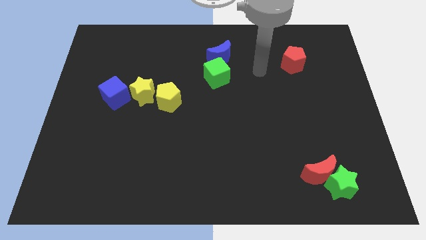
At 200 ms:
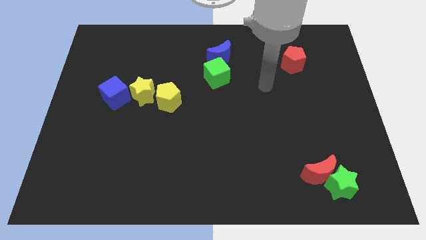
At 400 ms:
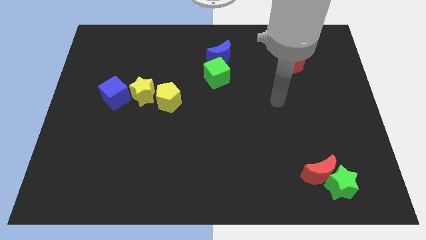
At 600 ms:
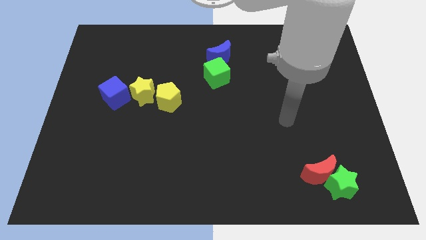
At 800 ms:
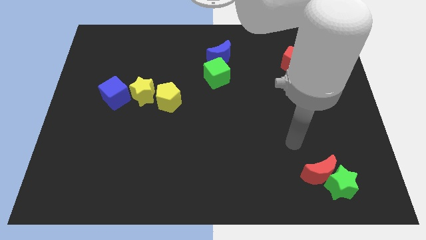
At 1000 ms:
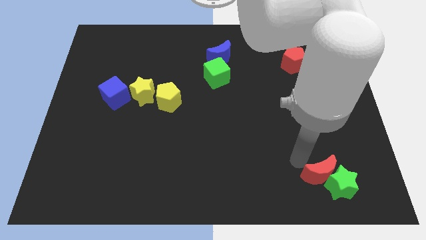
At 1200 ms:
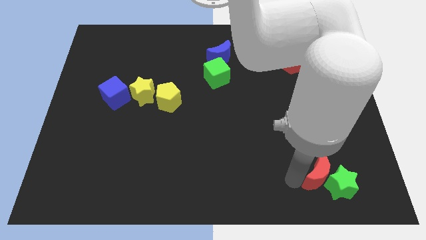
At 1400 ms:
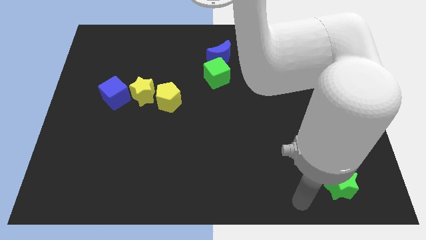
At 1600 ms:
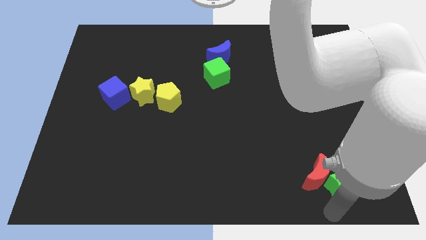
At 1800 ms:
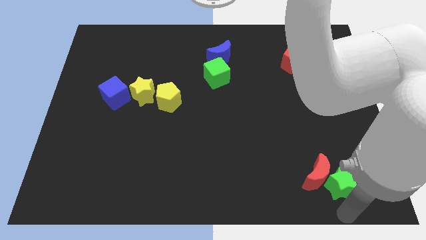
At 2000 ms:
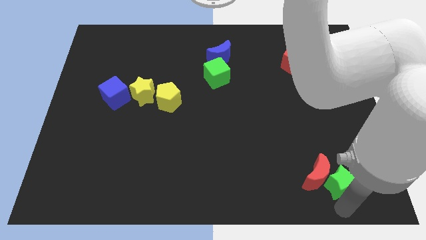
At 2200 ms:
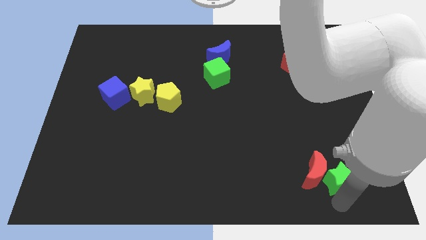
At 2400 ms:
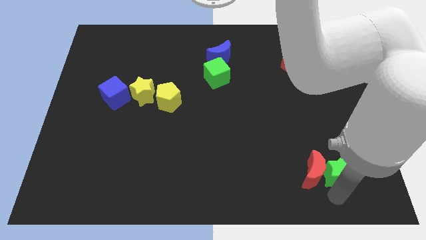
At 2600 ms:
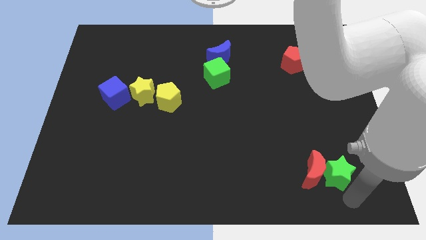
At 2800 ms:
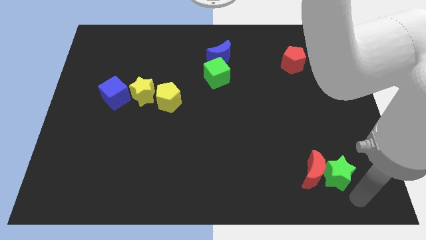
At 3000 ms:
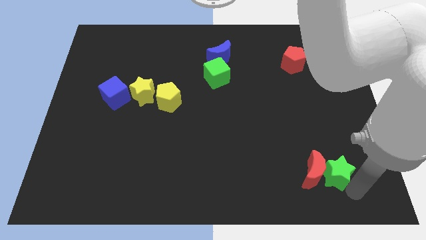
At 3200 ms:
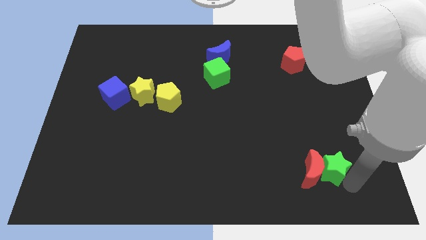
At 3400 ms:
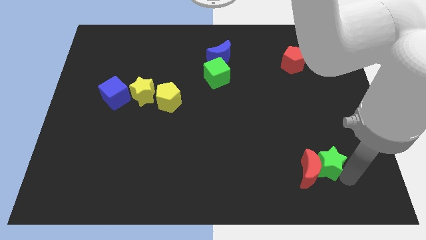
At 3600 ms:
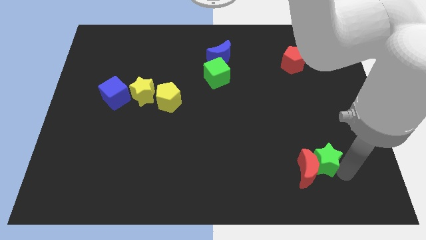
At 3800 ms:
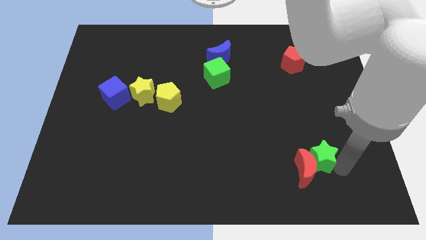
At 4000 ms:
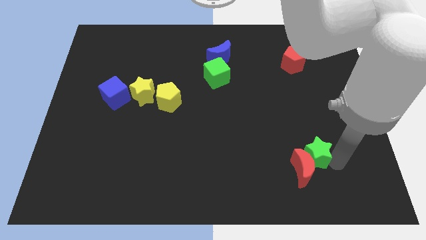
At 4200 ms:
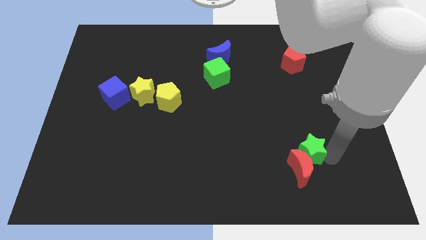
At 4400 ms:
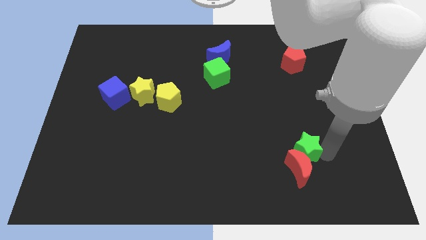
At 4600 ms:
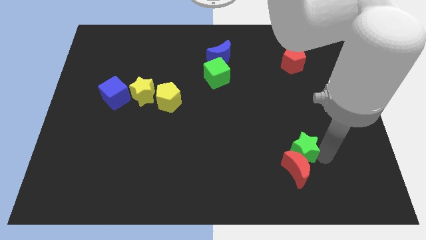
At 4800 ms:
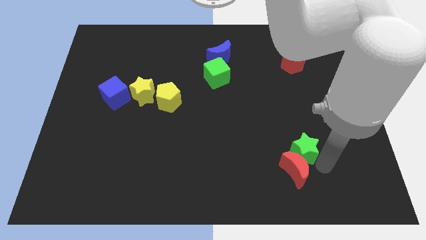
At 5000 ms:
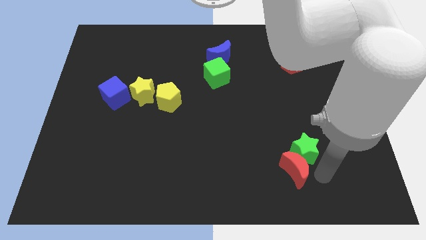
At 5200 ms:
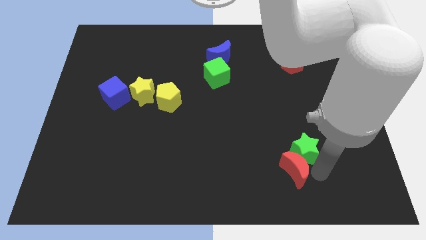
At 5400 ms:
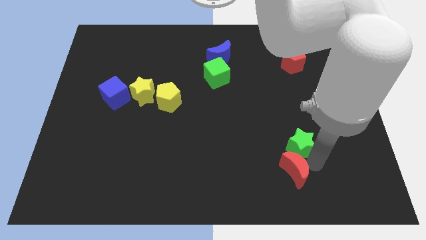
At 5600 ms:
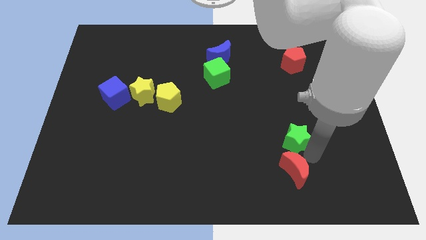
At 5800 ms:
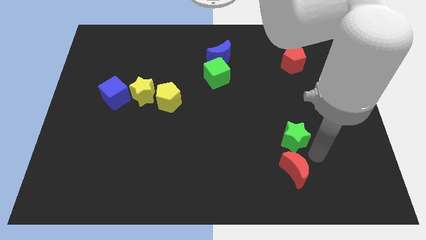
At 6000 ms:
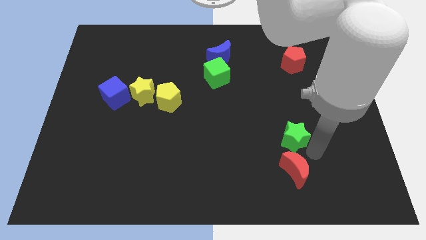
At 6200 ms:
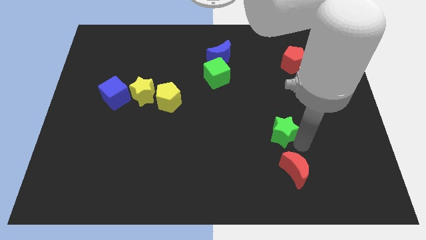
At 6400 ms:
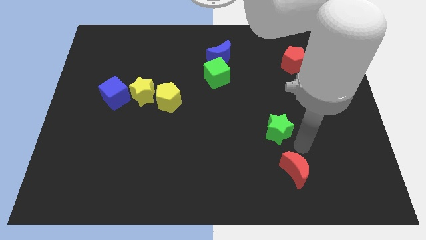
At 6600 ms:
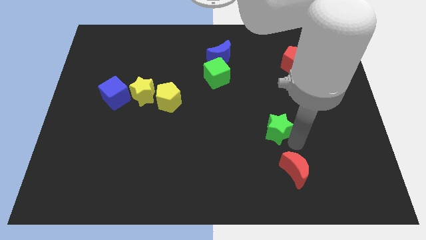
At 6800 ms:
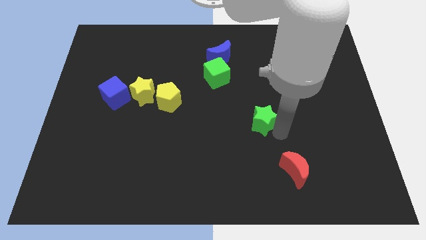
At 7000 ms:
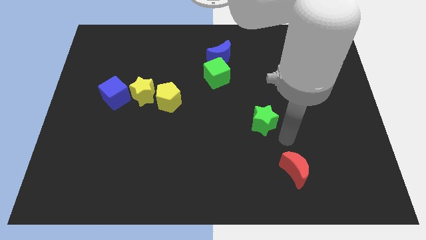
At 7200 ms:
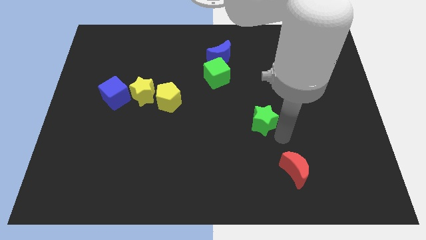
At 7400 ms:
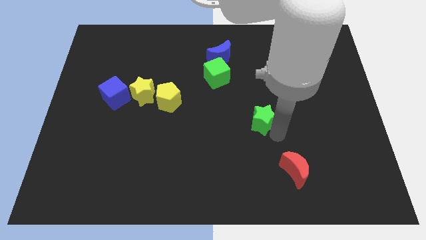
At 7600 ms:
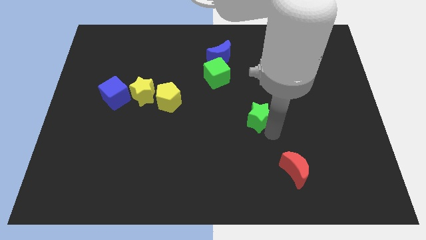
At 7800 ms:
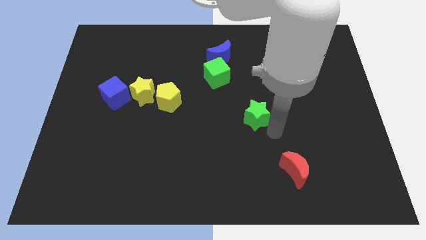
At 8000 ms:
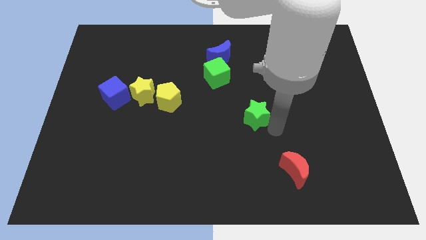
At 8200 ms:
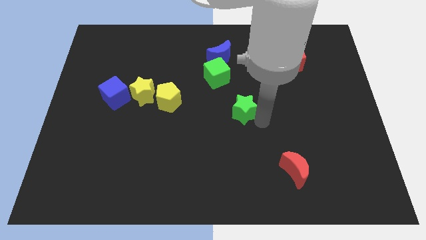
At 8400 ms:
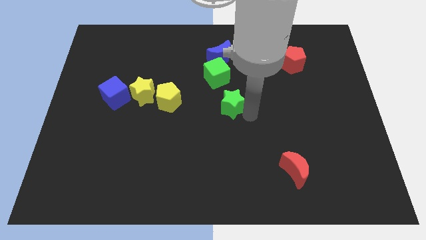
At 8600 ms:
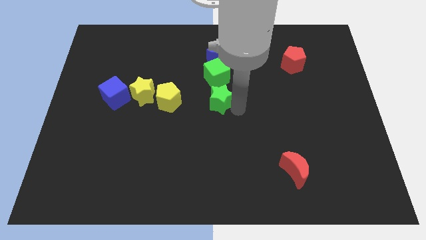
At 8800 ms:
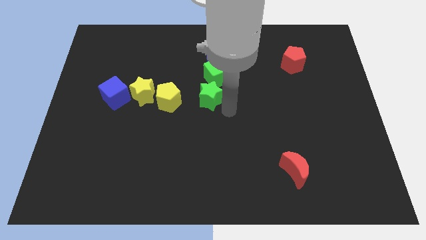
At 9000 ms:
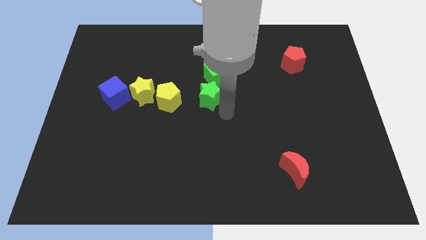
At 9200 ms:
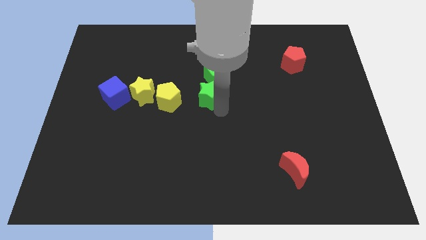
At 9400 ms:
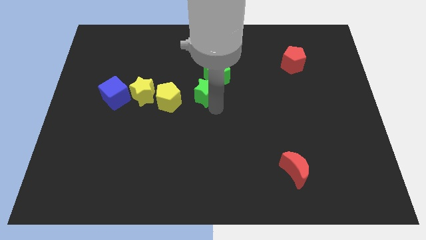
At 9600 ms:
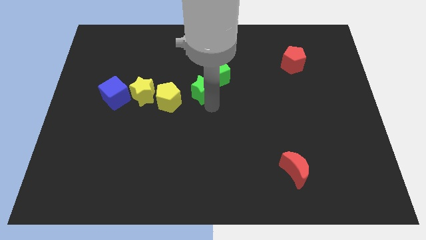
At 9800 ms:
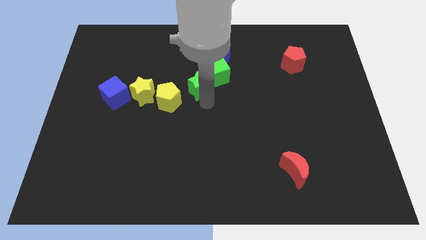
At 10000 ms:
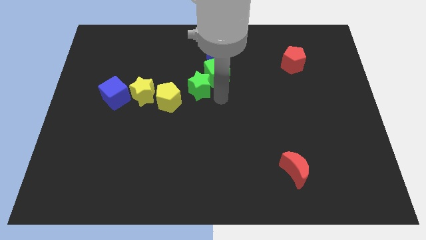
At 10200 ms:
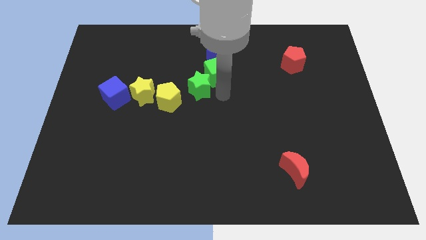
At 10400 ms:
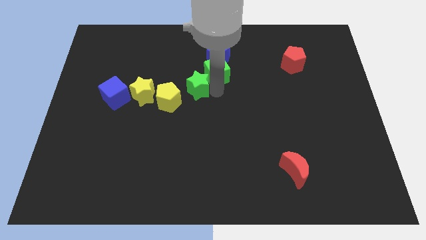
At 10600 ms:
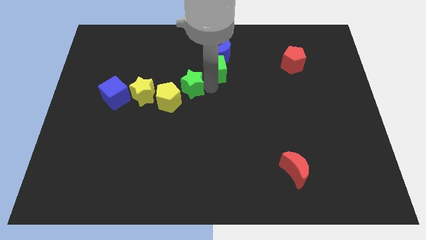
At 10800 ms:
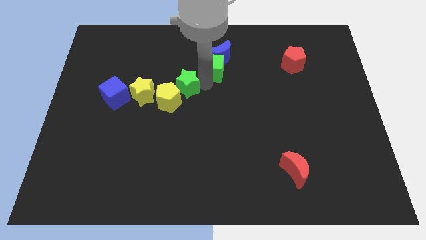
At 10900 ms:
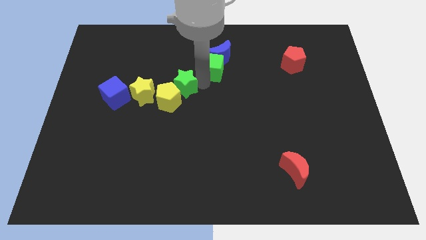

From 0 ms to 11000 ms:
push the green star diagonally up and to the right of the yellow star

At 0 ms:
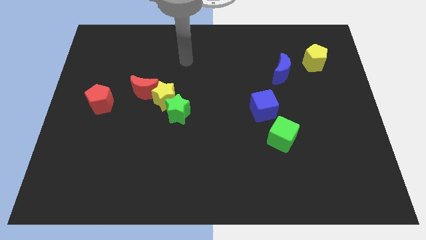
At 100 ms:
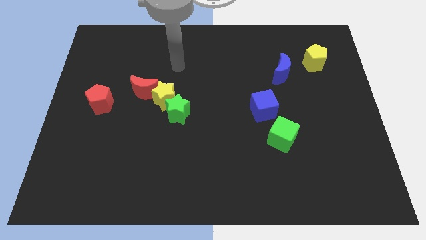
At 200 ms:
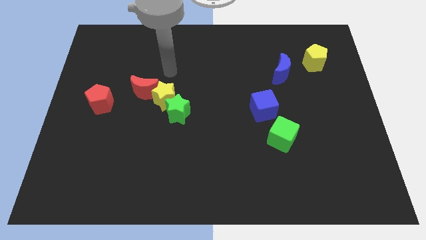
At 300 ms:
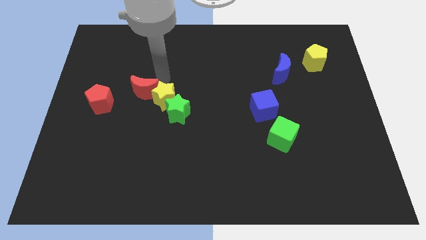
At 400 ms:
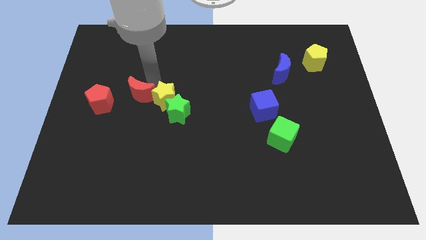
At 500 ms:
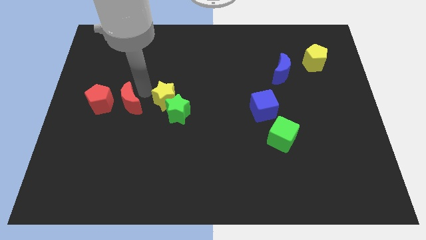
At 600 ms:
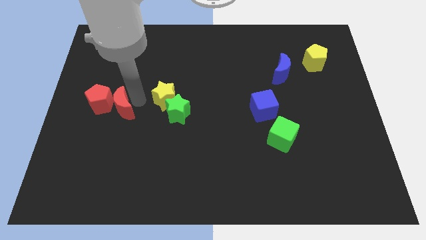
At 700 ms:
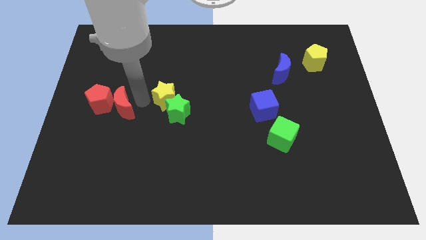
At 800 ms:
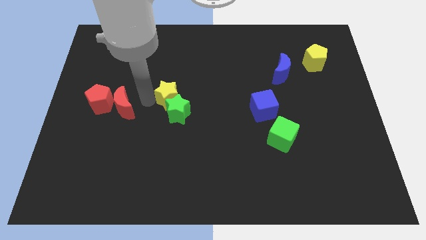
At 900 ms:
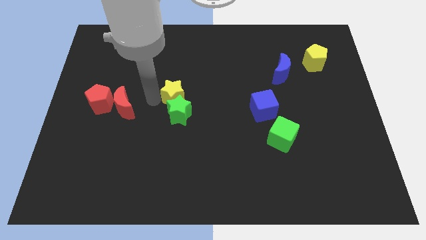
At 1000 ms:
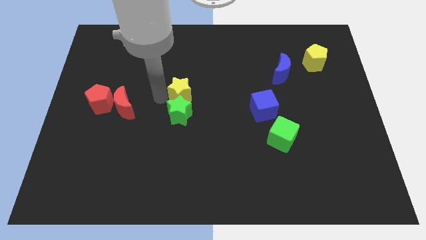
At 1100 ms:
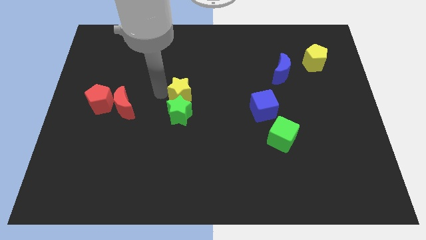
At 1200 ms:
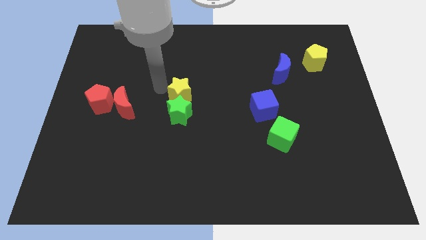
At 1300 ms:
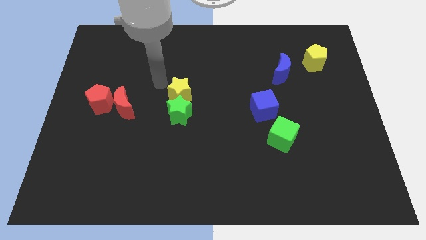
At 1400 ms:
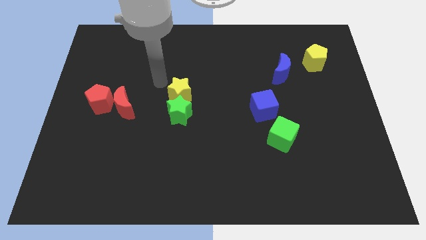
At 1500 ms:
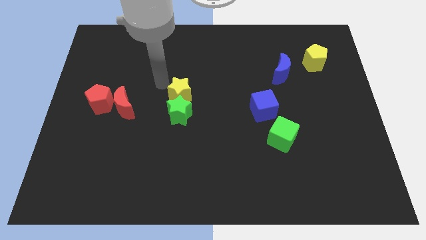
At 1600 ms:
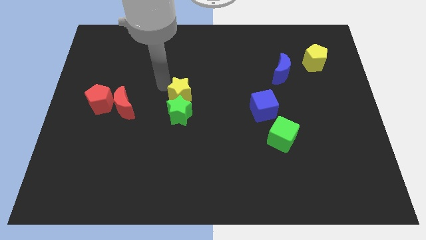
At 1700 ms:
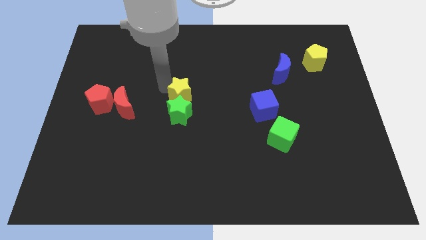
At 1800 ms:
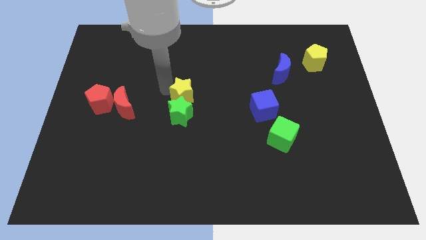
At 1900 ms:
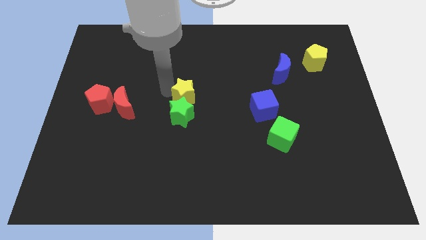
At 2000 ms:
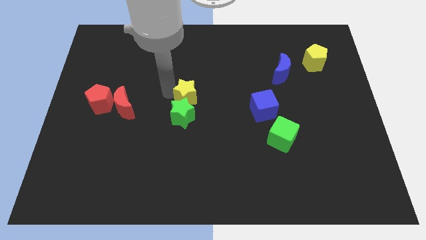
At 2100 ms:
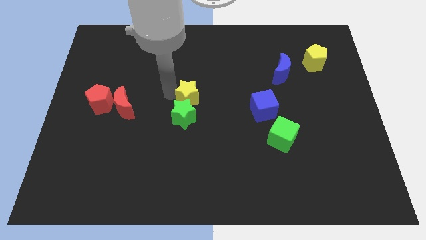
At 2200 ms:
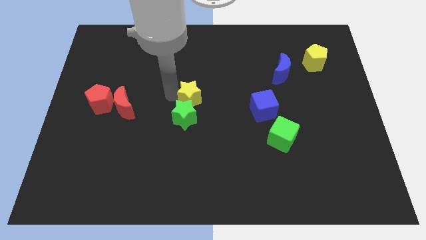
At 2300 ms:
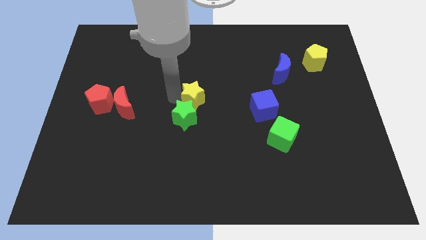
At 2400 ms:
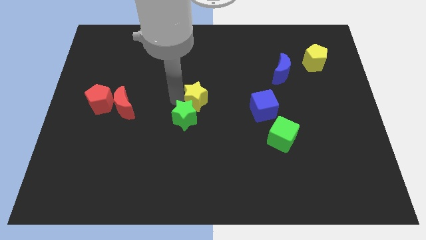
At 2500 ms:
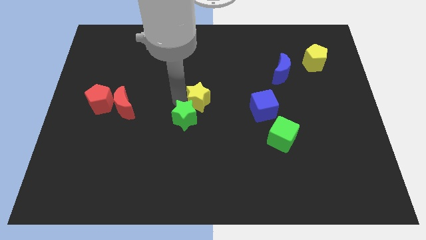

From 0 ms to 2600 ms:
move the yellow star to the left side of the blue cube
